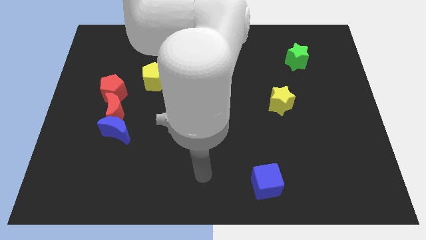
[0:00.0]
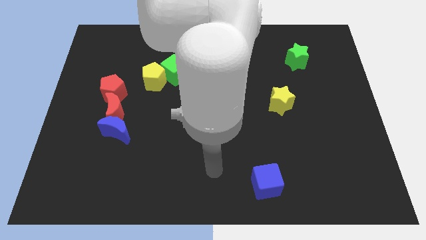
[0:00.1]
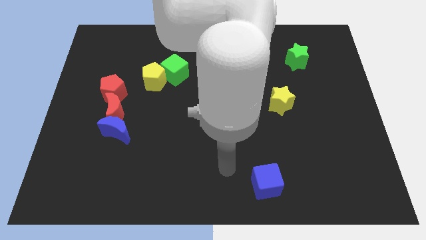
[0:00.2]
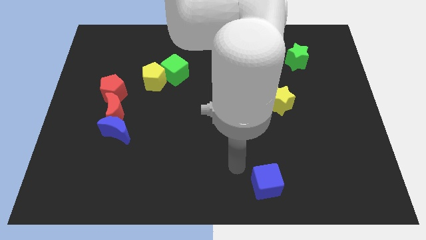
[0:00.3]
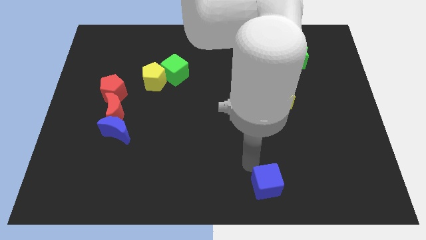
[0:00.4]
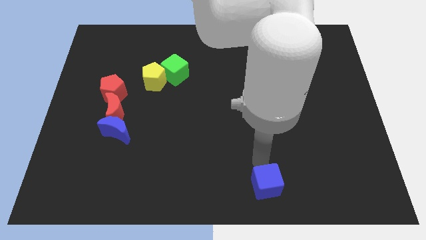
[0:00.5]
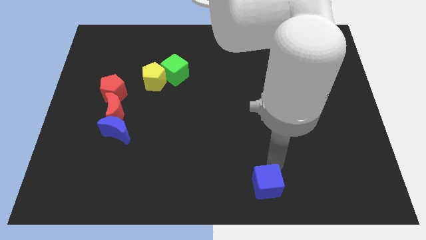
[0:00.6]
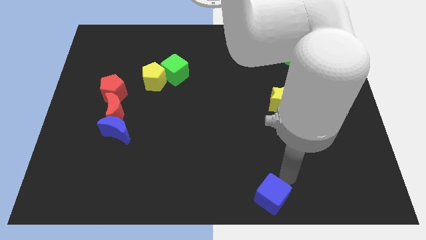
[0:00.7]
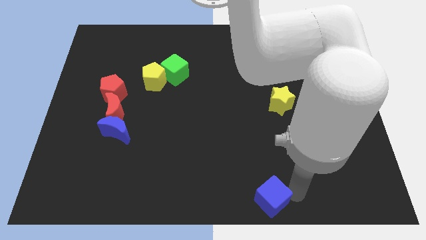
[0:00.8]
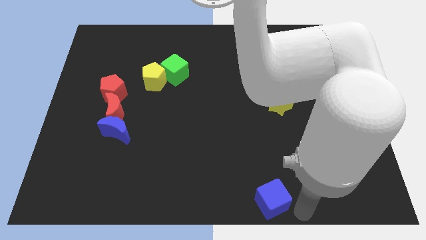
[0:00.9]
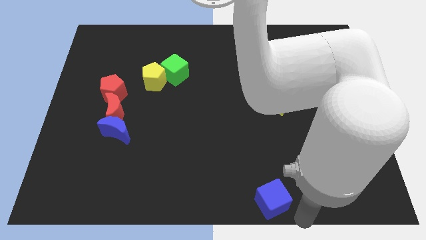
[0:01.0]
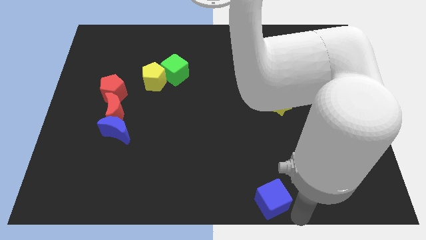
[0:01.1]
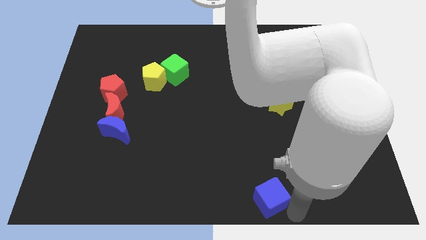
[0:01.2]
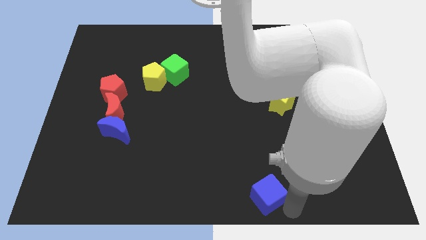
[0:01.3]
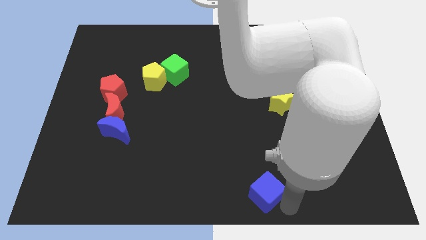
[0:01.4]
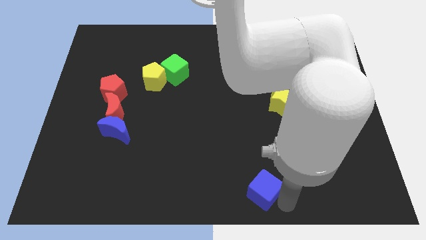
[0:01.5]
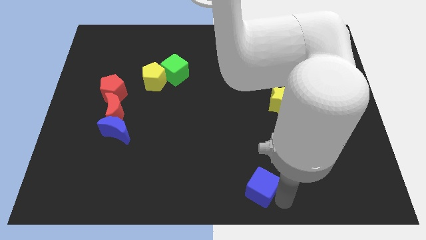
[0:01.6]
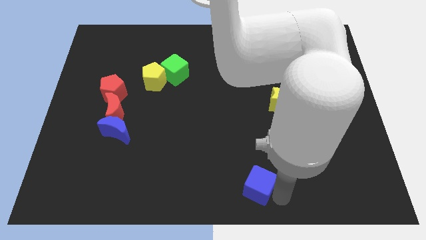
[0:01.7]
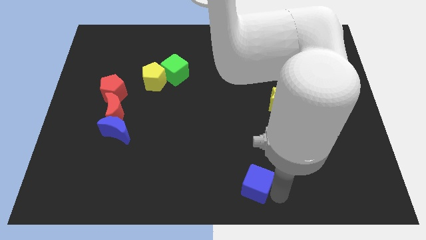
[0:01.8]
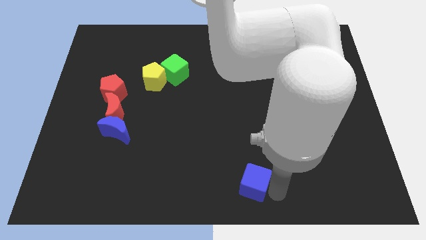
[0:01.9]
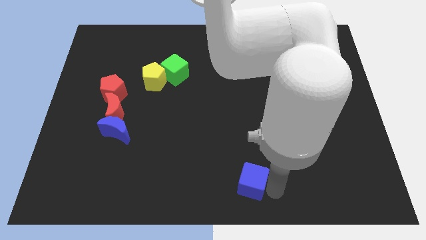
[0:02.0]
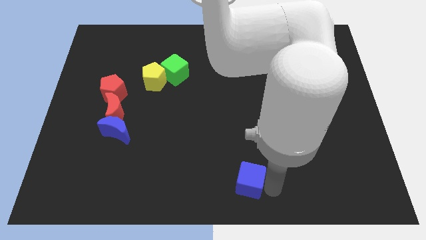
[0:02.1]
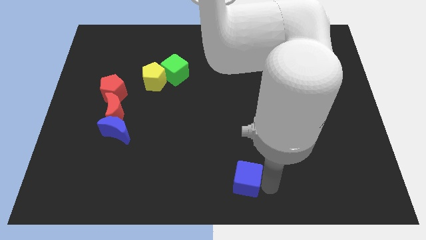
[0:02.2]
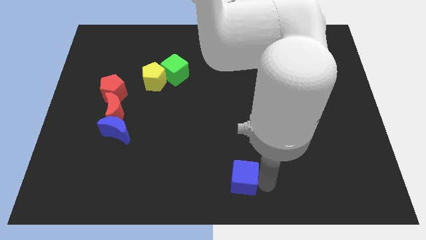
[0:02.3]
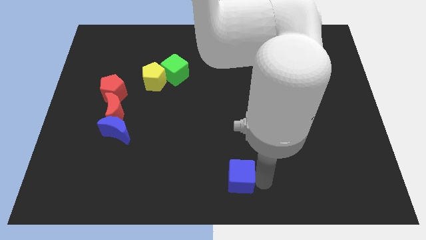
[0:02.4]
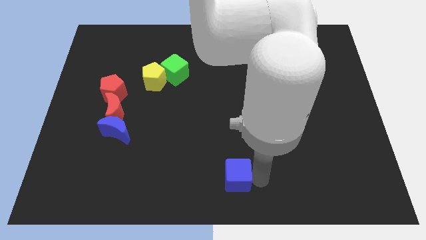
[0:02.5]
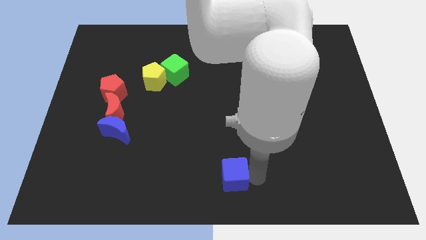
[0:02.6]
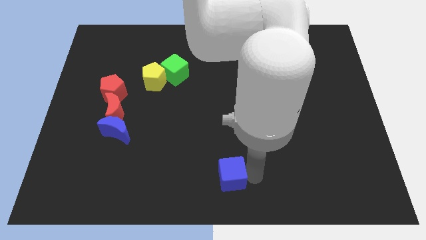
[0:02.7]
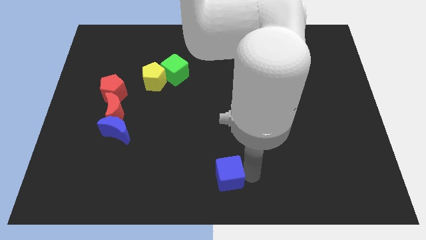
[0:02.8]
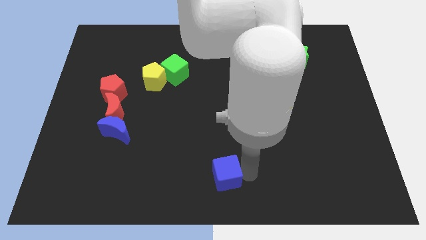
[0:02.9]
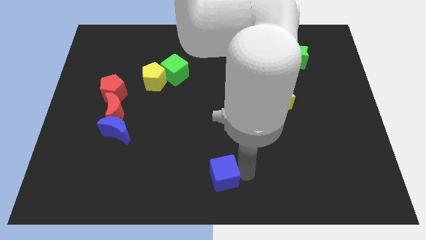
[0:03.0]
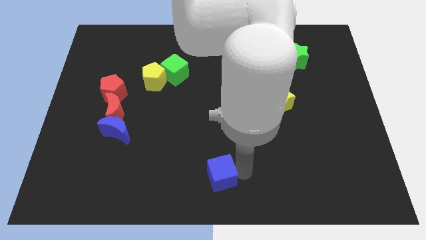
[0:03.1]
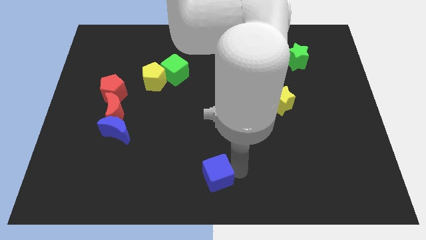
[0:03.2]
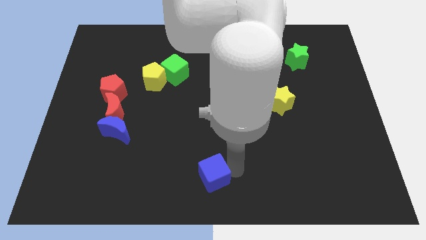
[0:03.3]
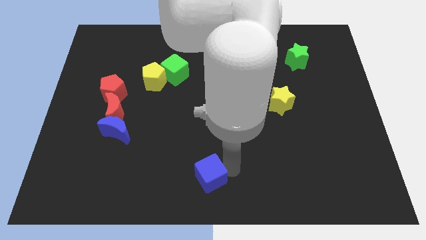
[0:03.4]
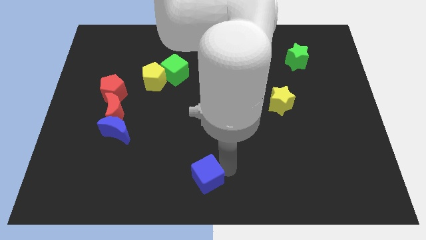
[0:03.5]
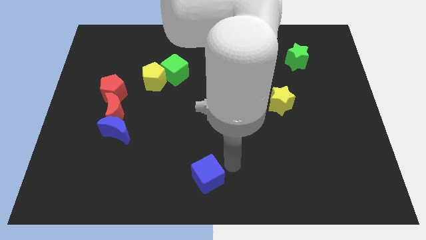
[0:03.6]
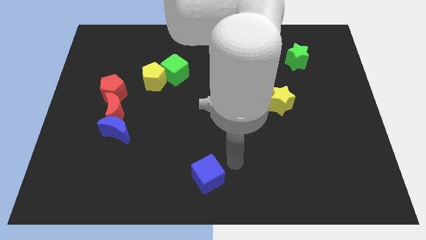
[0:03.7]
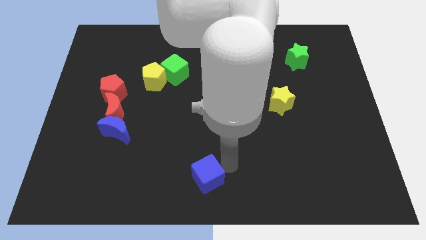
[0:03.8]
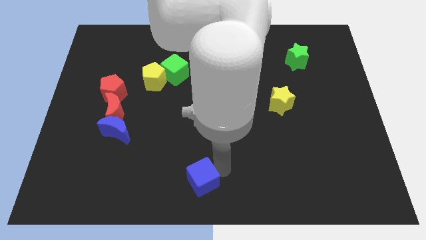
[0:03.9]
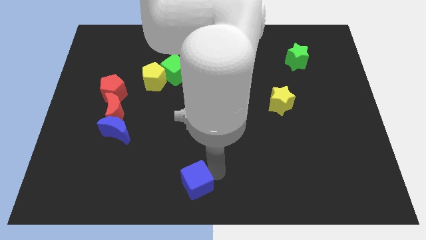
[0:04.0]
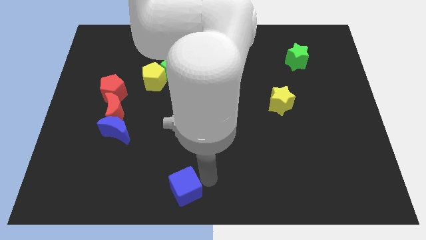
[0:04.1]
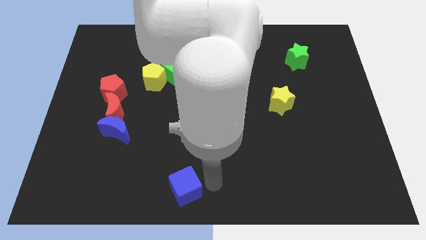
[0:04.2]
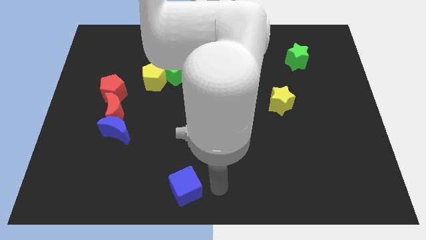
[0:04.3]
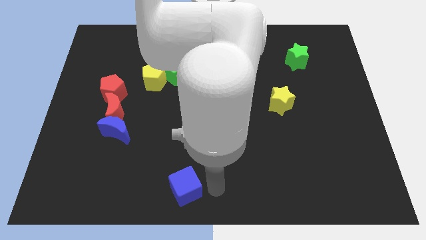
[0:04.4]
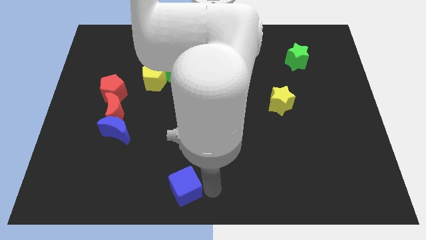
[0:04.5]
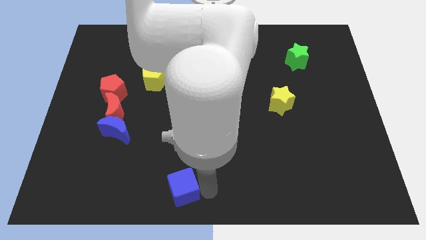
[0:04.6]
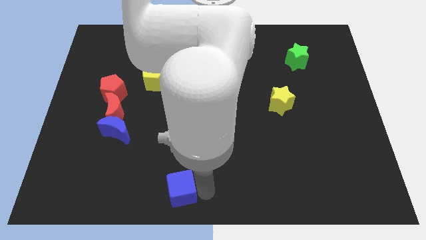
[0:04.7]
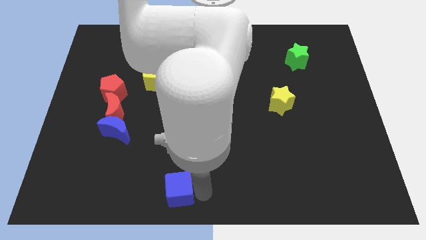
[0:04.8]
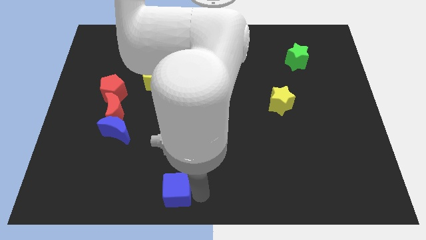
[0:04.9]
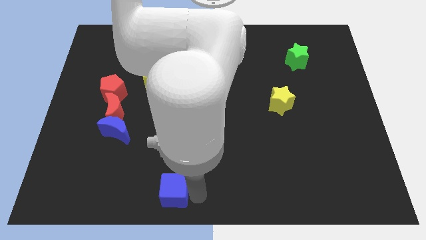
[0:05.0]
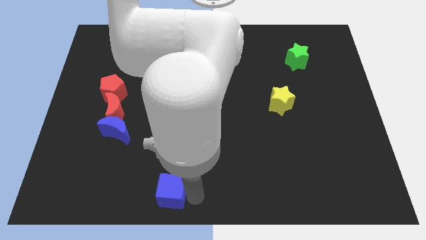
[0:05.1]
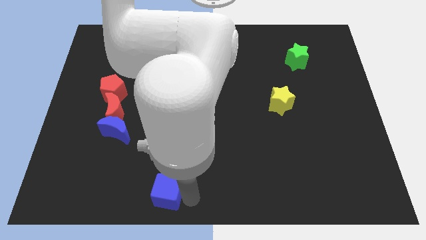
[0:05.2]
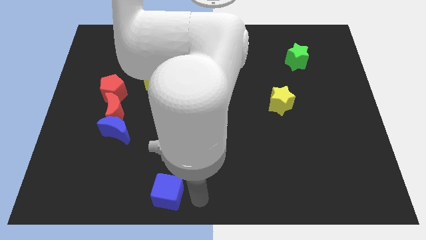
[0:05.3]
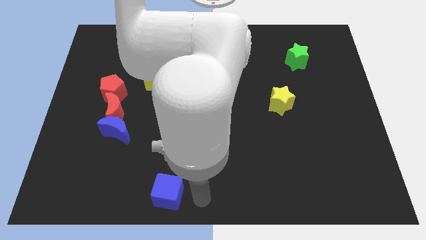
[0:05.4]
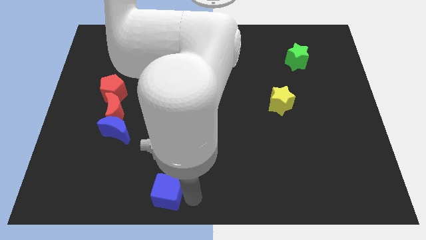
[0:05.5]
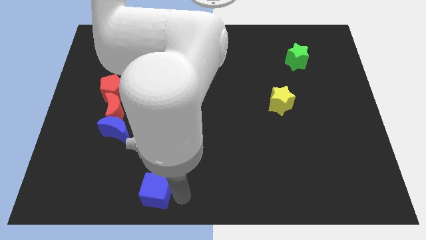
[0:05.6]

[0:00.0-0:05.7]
slide the blue cube to the left

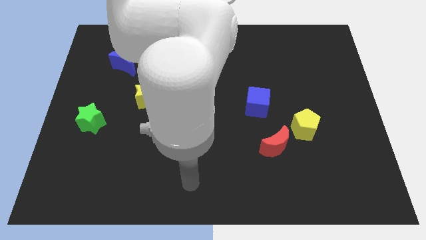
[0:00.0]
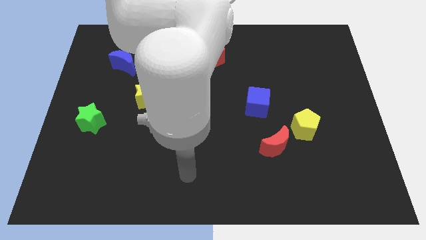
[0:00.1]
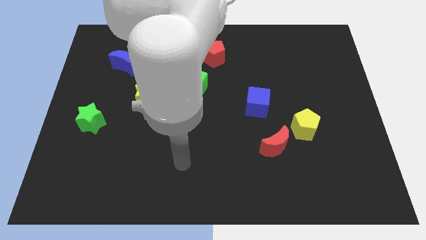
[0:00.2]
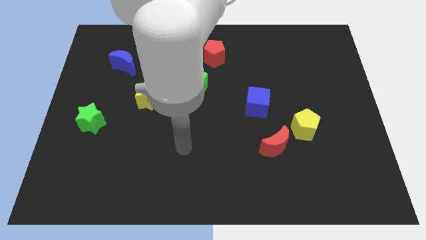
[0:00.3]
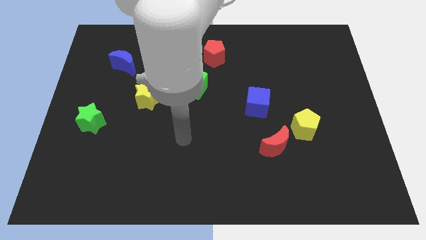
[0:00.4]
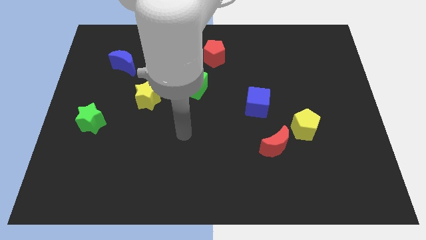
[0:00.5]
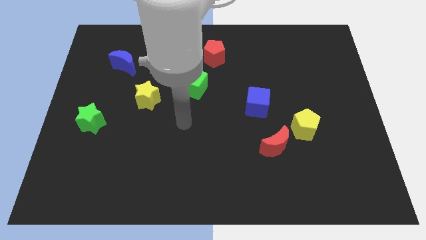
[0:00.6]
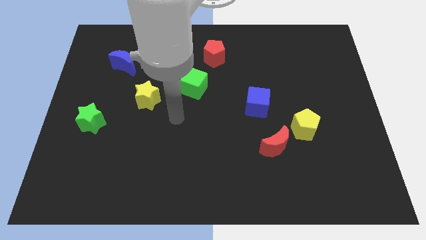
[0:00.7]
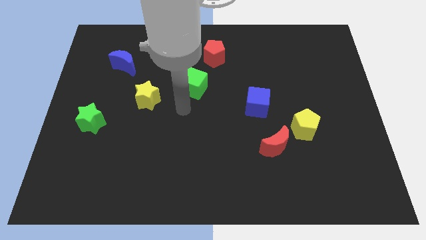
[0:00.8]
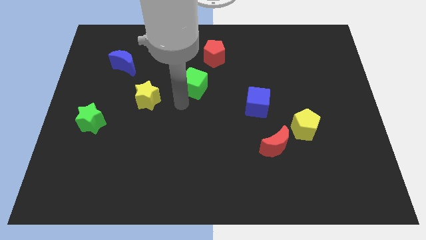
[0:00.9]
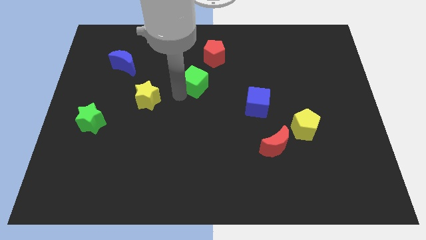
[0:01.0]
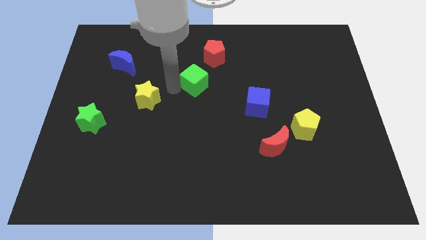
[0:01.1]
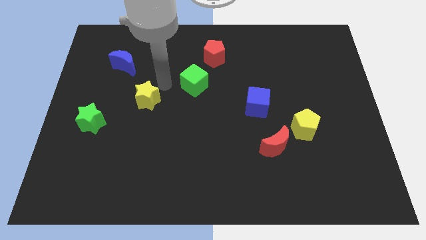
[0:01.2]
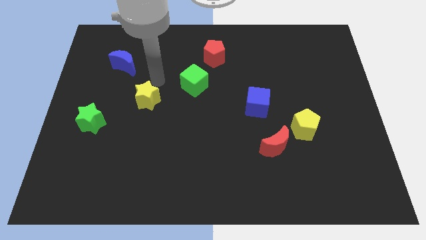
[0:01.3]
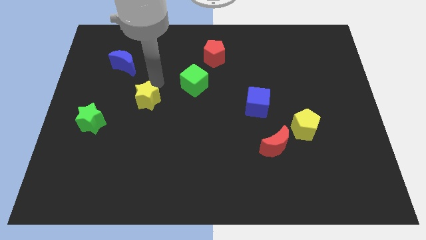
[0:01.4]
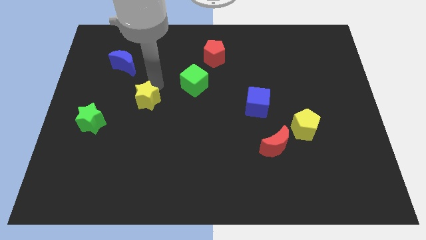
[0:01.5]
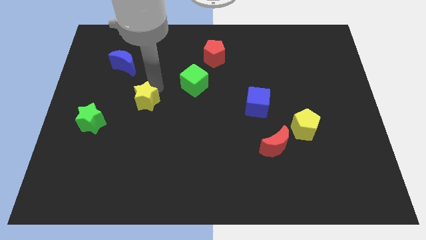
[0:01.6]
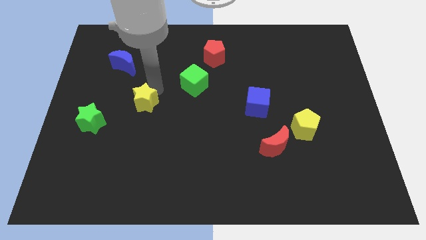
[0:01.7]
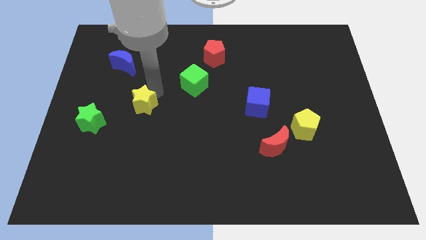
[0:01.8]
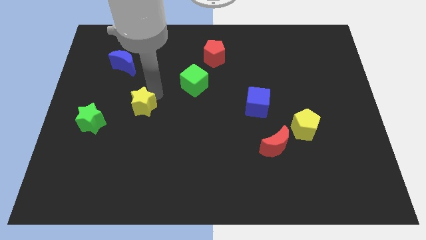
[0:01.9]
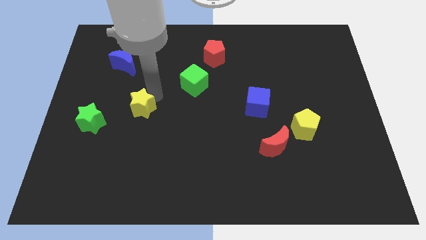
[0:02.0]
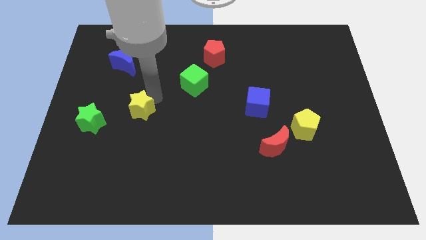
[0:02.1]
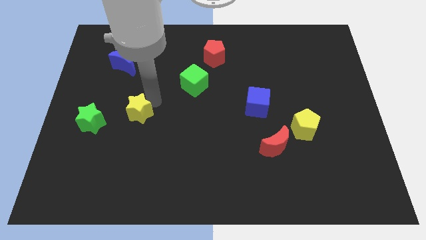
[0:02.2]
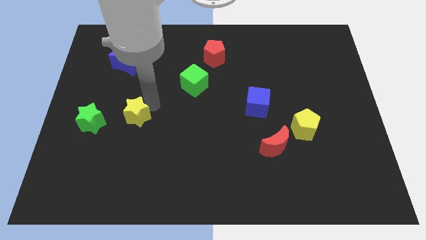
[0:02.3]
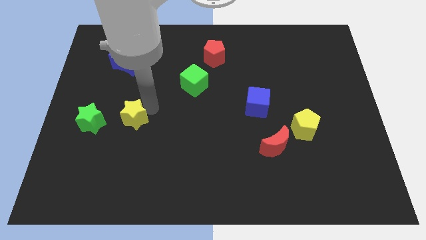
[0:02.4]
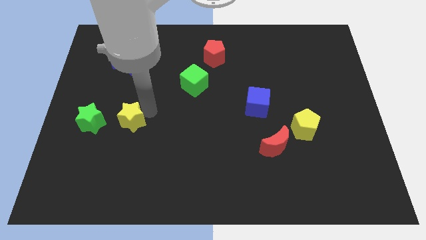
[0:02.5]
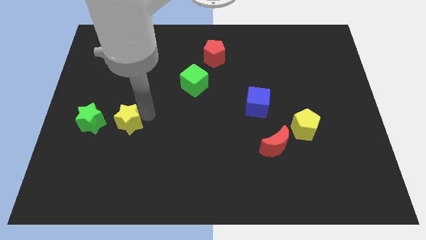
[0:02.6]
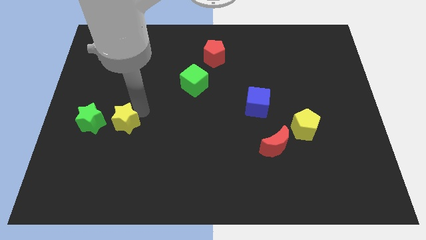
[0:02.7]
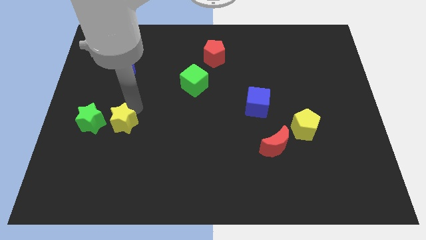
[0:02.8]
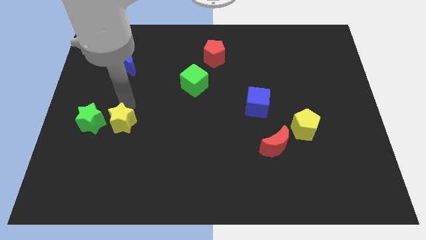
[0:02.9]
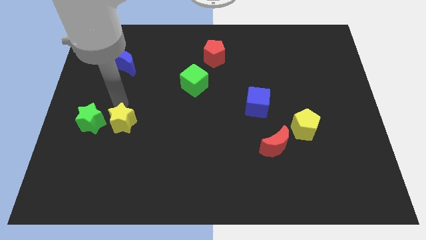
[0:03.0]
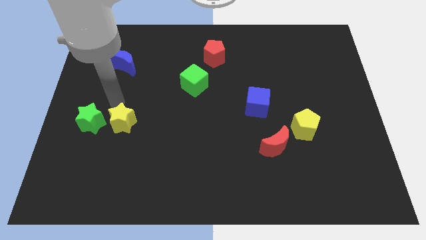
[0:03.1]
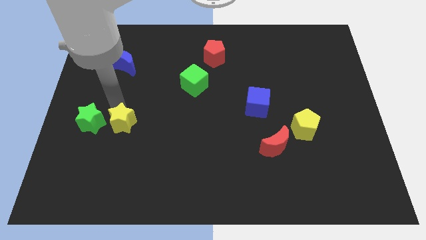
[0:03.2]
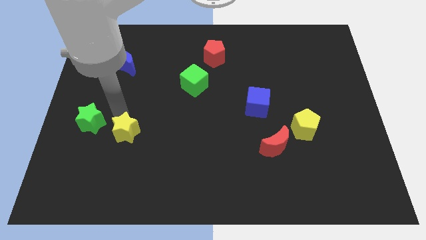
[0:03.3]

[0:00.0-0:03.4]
slightly slide the yellow star down
